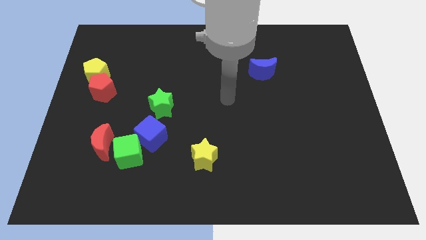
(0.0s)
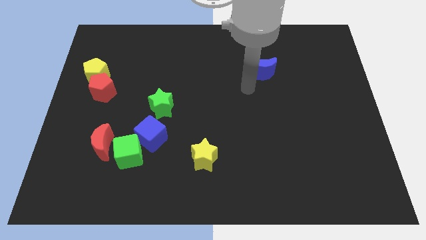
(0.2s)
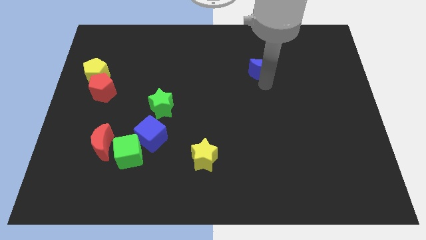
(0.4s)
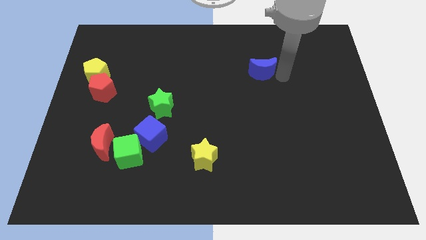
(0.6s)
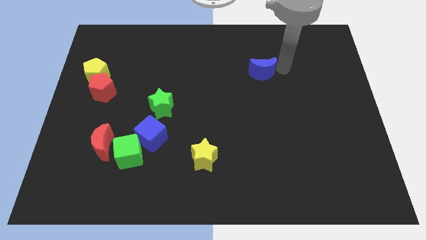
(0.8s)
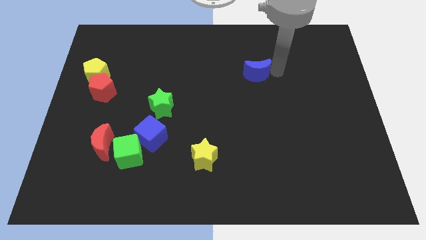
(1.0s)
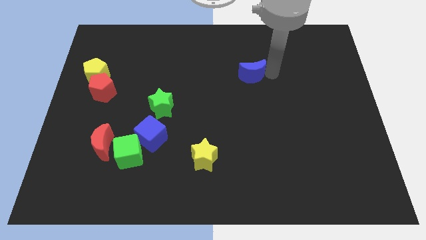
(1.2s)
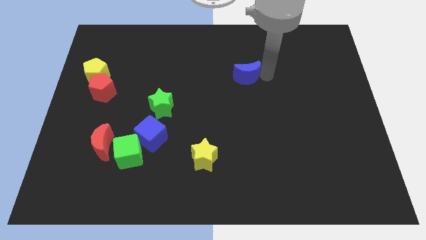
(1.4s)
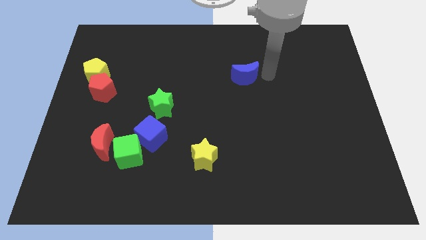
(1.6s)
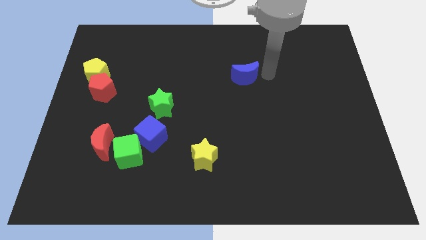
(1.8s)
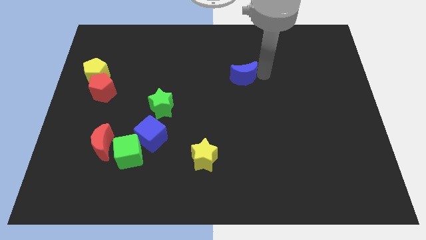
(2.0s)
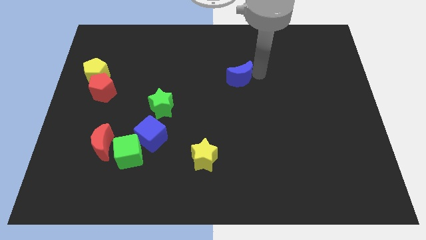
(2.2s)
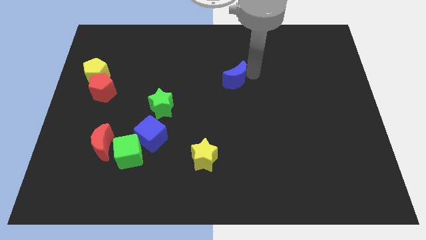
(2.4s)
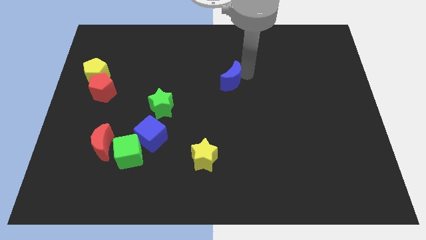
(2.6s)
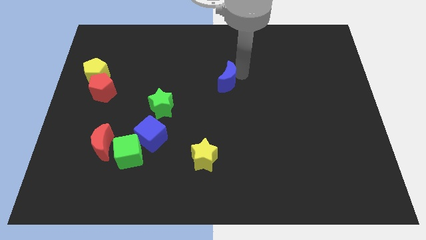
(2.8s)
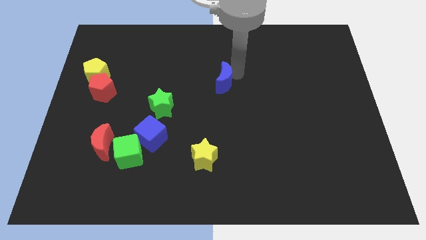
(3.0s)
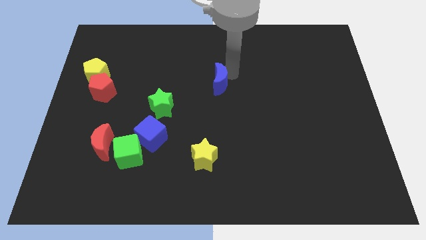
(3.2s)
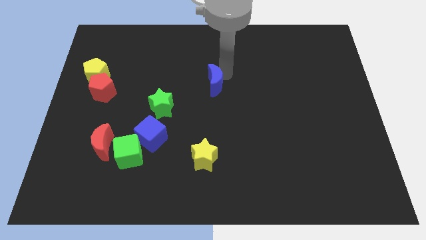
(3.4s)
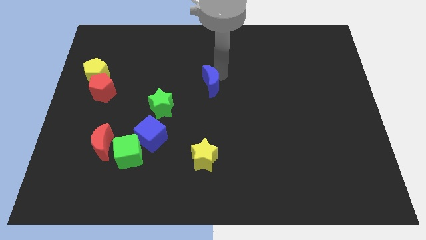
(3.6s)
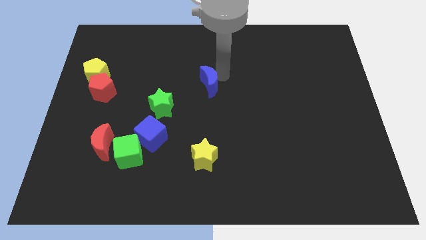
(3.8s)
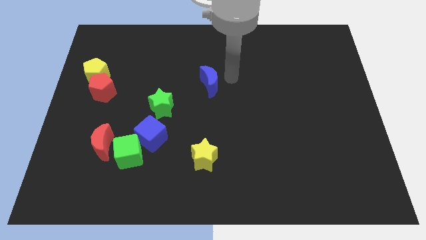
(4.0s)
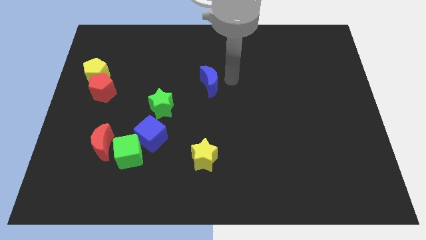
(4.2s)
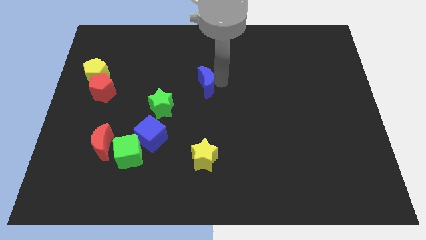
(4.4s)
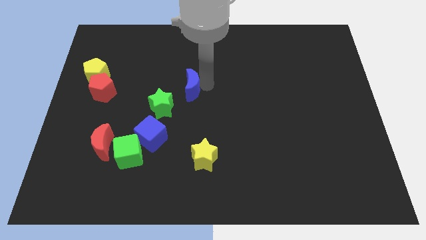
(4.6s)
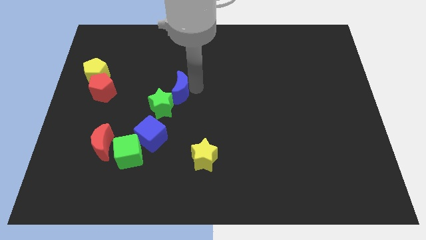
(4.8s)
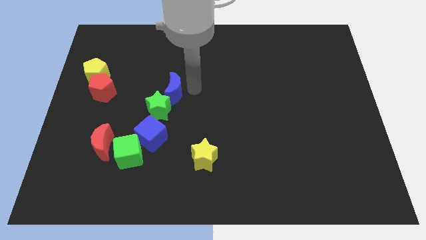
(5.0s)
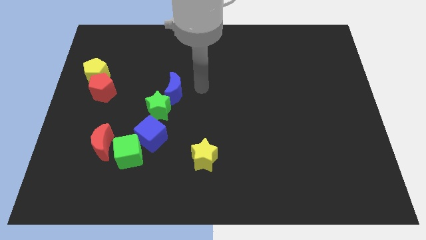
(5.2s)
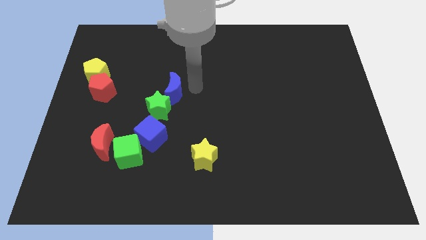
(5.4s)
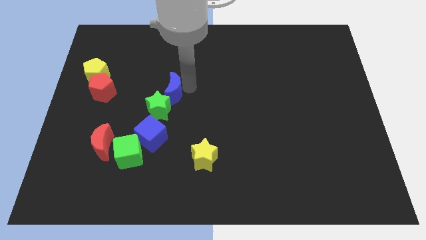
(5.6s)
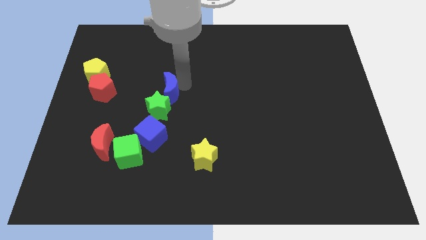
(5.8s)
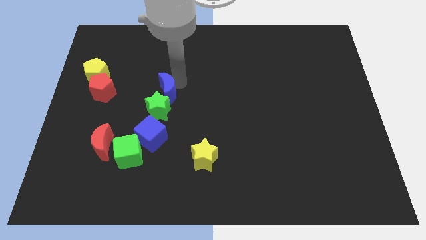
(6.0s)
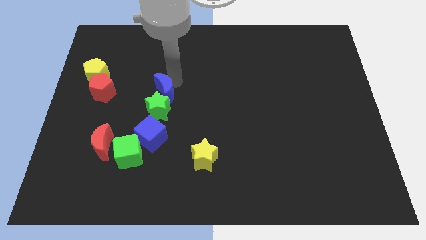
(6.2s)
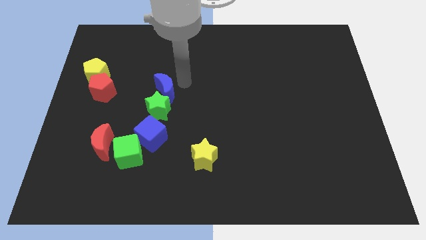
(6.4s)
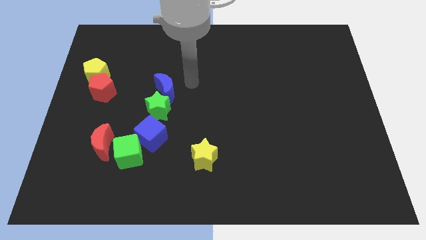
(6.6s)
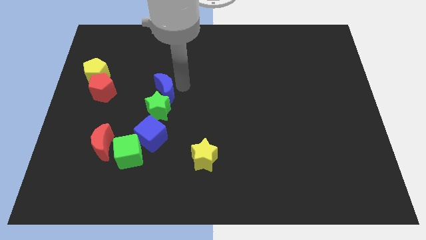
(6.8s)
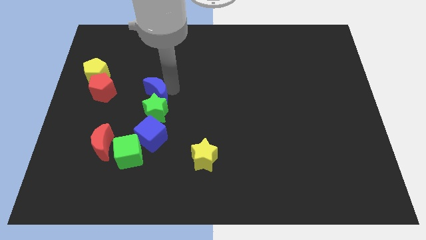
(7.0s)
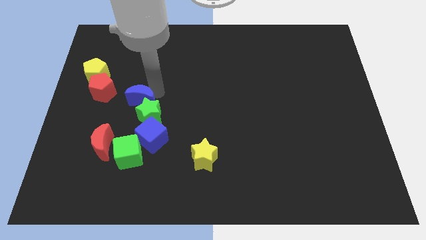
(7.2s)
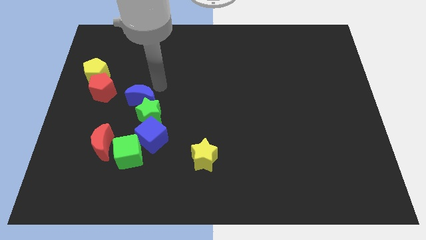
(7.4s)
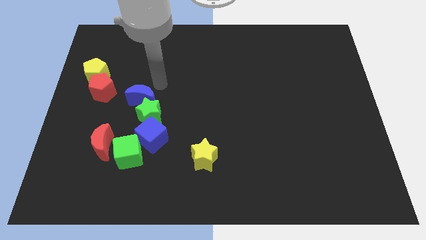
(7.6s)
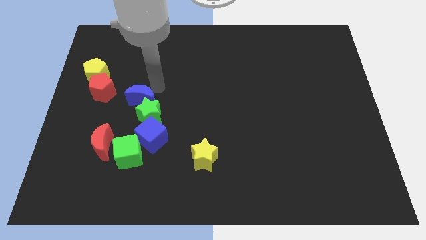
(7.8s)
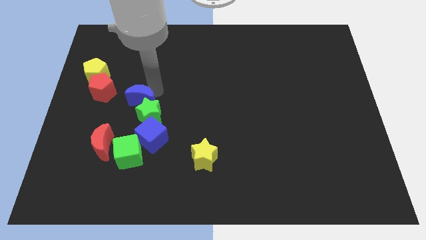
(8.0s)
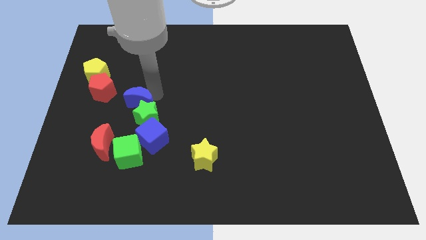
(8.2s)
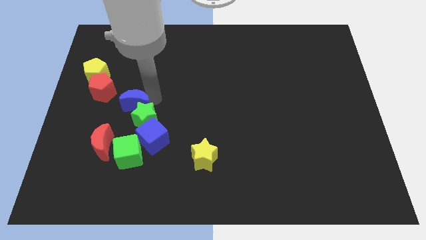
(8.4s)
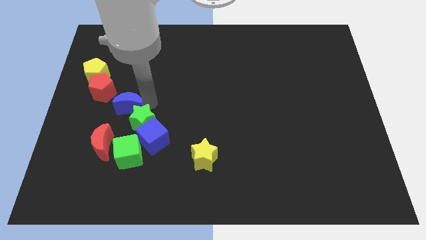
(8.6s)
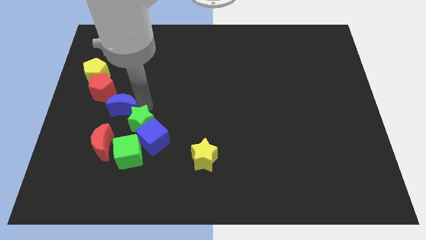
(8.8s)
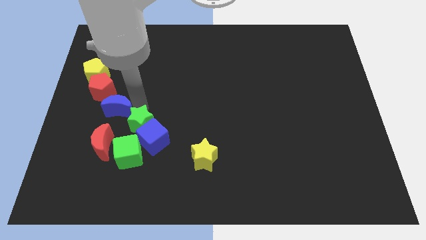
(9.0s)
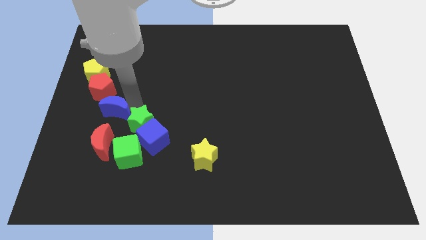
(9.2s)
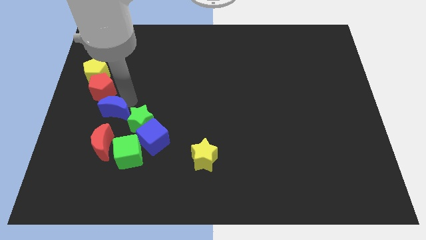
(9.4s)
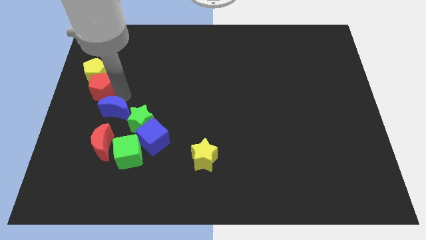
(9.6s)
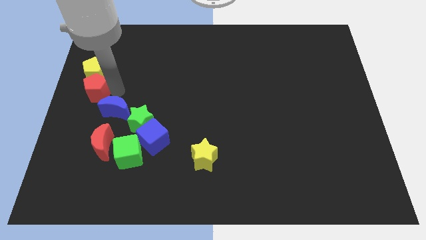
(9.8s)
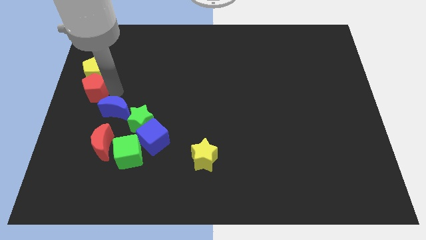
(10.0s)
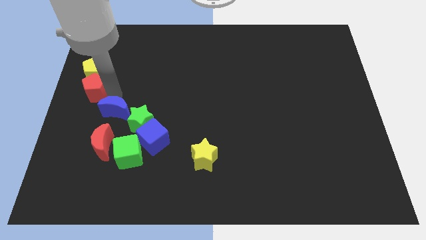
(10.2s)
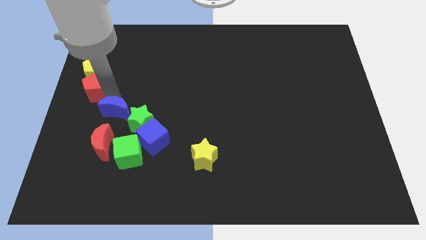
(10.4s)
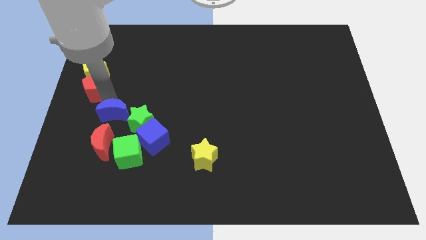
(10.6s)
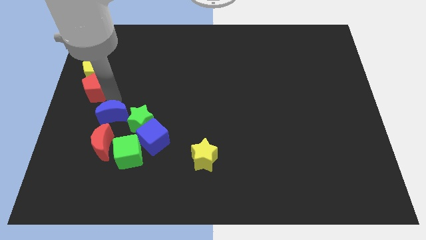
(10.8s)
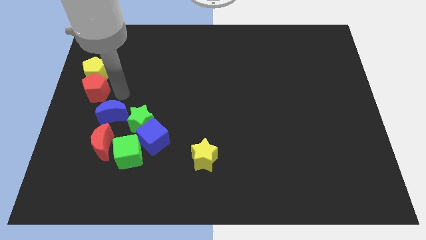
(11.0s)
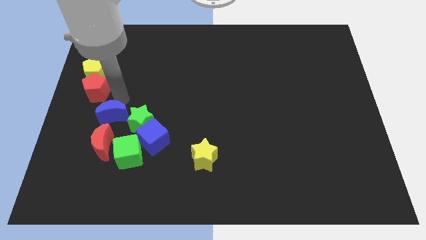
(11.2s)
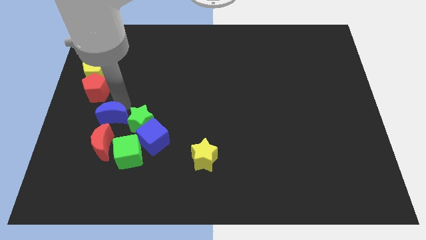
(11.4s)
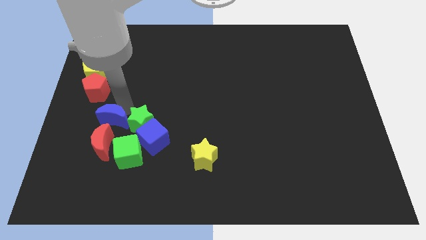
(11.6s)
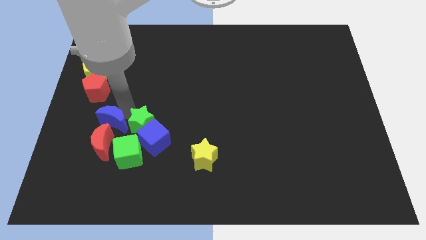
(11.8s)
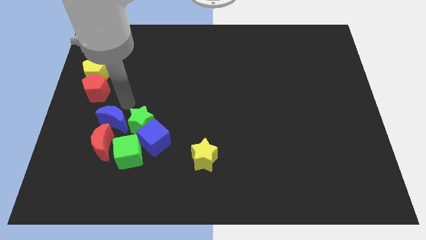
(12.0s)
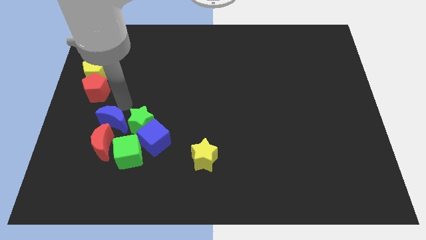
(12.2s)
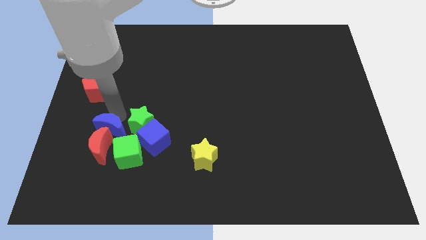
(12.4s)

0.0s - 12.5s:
slide the blue moon to the red moon

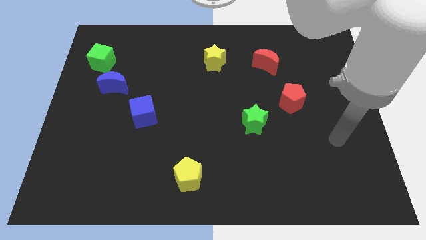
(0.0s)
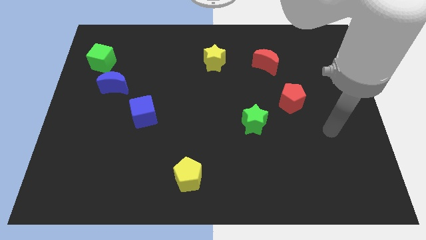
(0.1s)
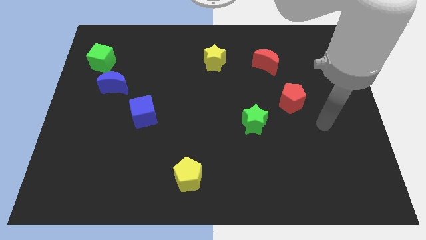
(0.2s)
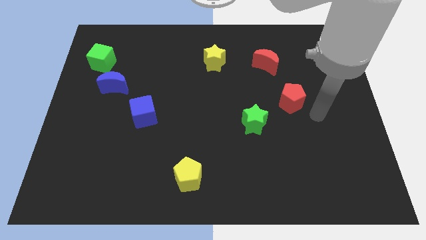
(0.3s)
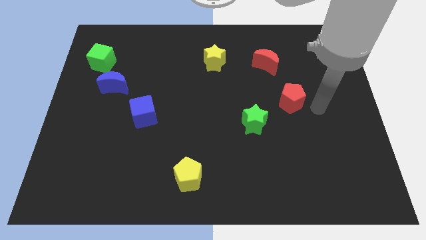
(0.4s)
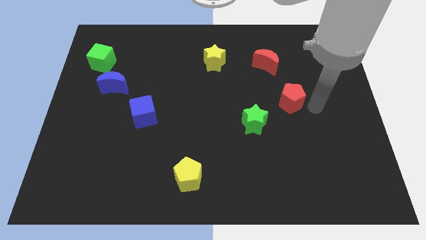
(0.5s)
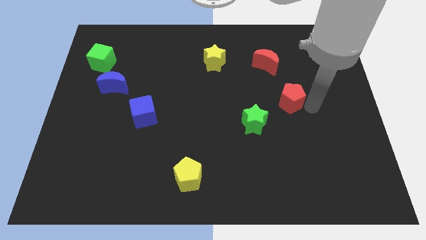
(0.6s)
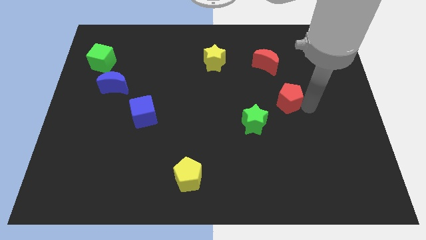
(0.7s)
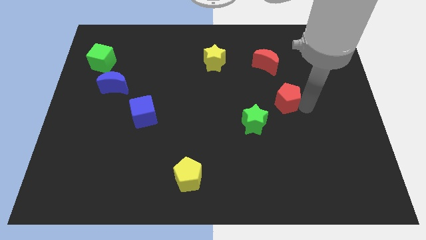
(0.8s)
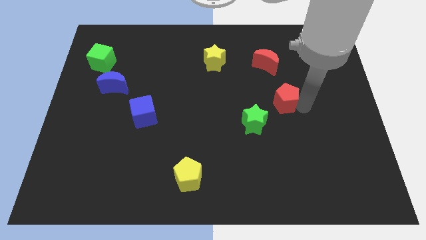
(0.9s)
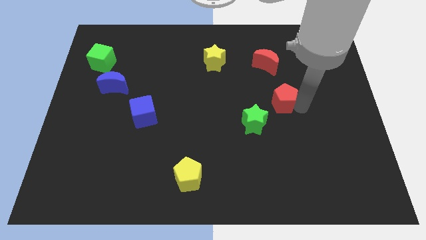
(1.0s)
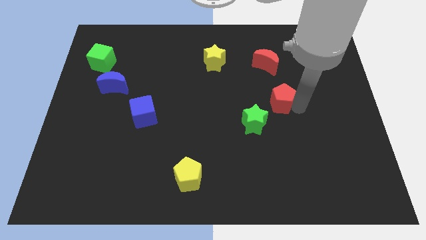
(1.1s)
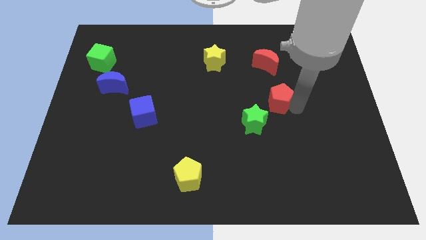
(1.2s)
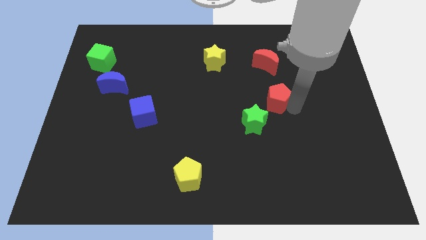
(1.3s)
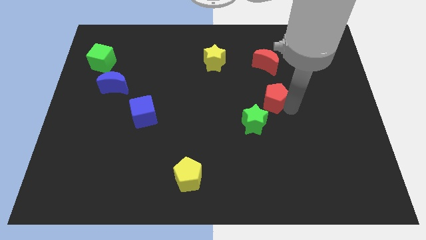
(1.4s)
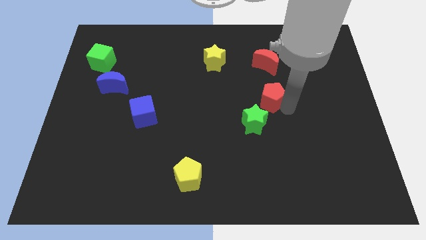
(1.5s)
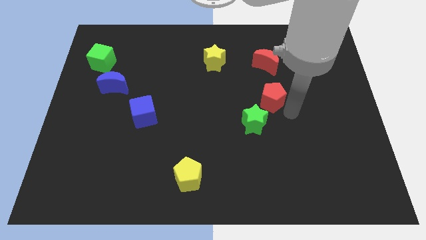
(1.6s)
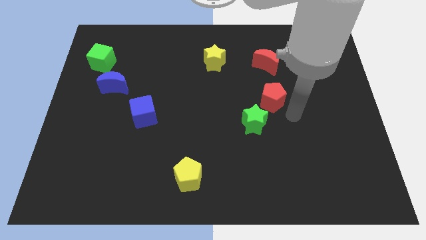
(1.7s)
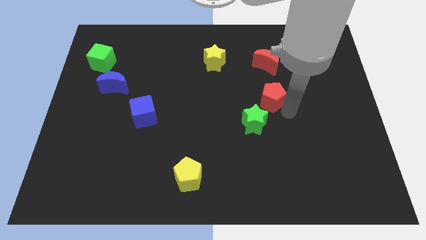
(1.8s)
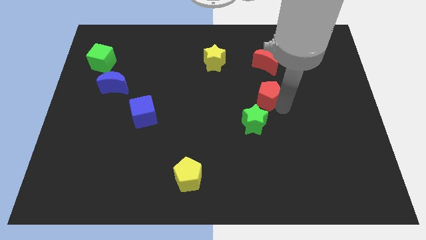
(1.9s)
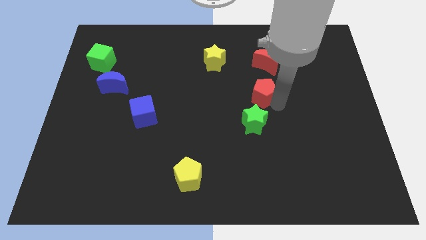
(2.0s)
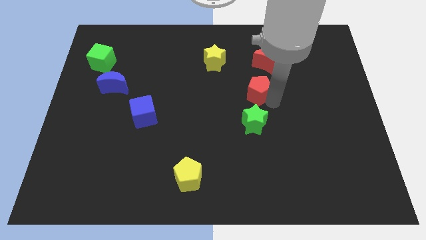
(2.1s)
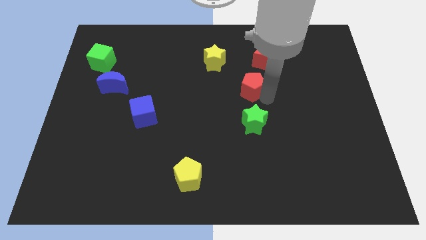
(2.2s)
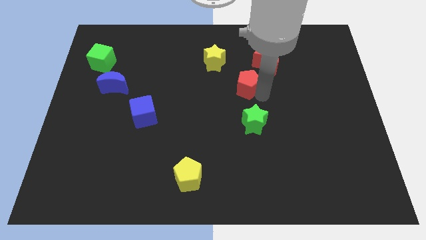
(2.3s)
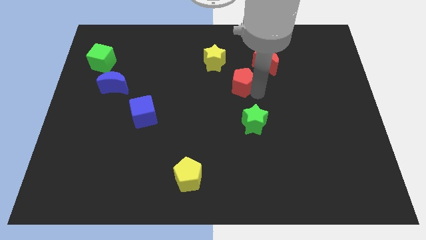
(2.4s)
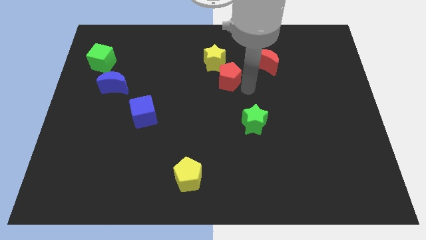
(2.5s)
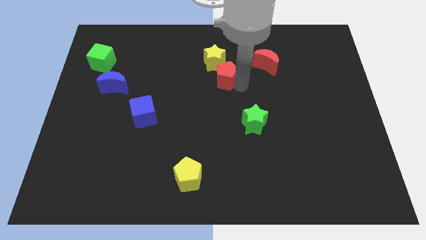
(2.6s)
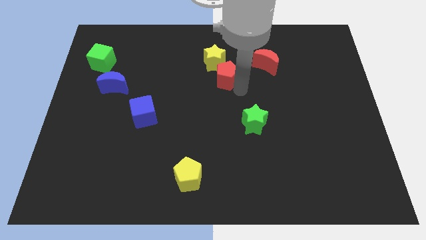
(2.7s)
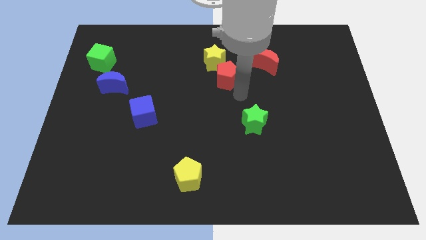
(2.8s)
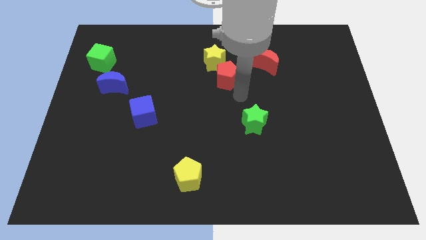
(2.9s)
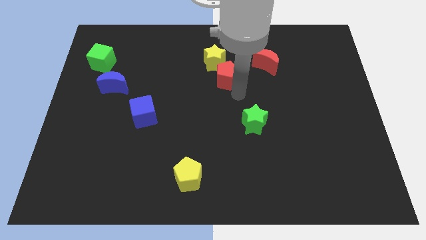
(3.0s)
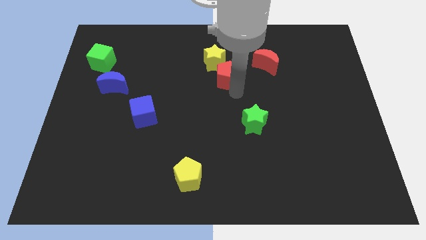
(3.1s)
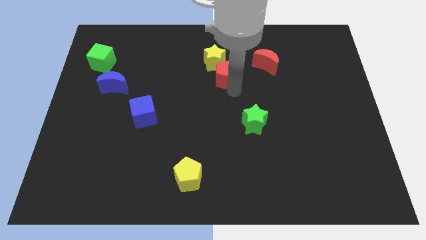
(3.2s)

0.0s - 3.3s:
slide the red pentagon next to the yellow star
